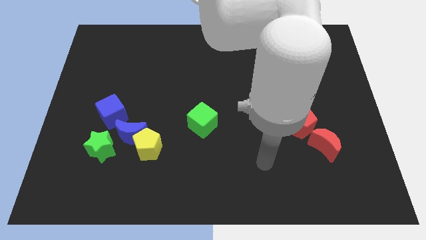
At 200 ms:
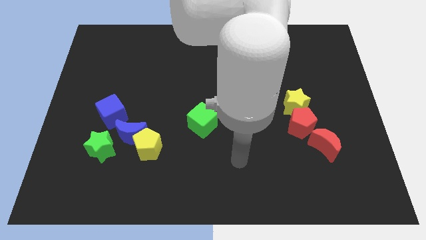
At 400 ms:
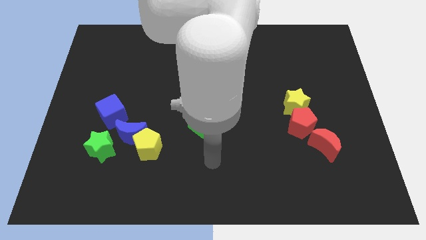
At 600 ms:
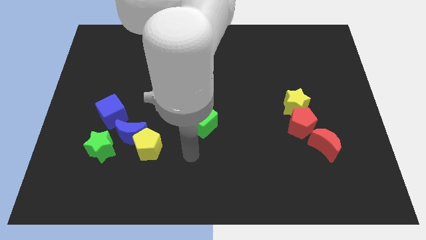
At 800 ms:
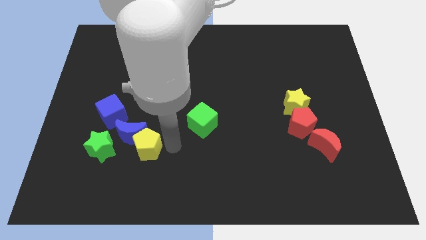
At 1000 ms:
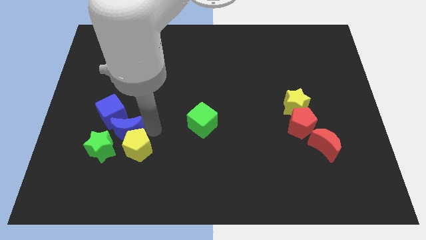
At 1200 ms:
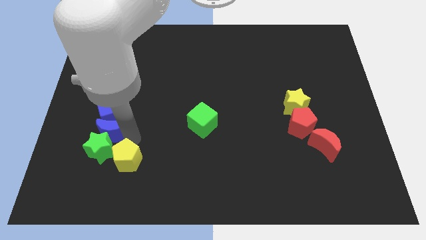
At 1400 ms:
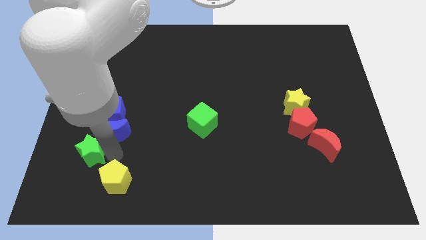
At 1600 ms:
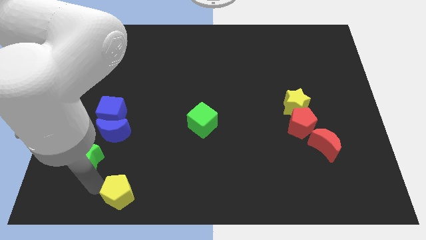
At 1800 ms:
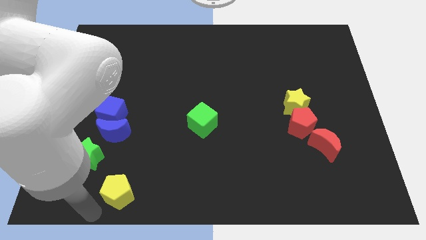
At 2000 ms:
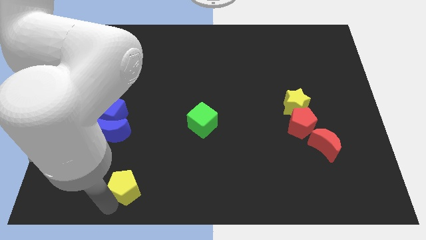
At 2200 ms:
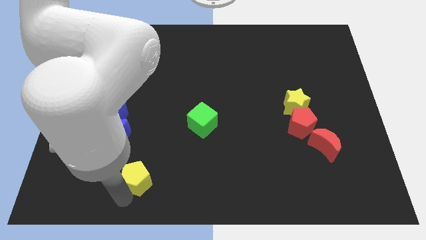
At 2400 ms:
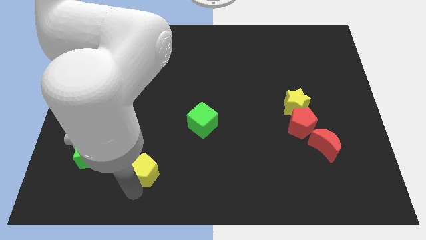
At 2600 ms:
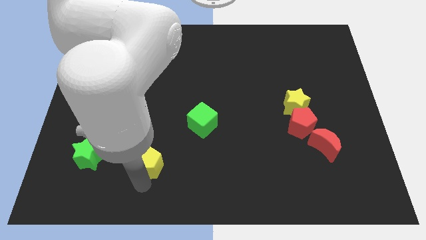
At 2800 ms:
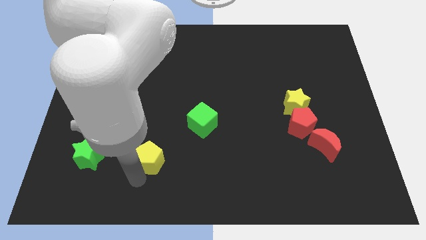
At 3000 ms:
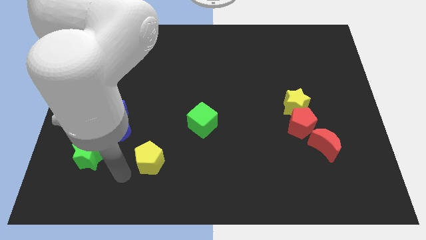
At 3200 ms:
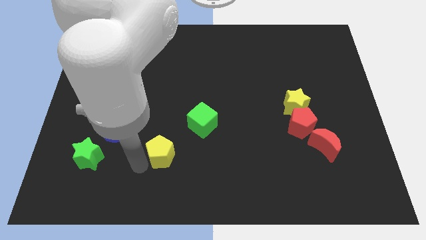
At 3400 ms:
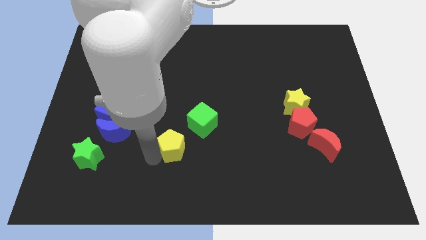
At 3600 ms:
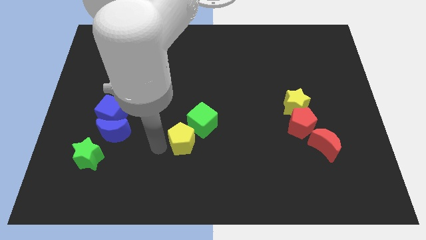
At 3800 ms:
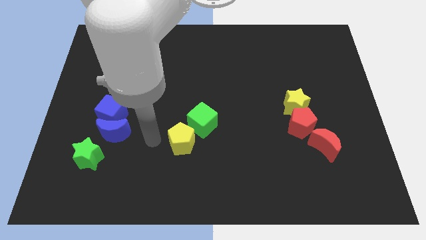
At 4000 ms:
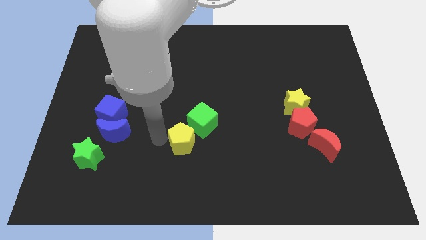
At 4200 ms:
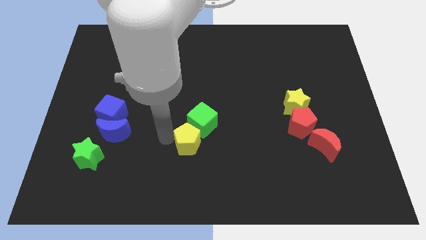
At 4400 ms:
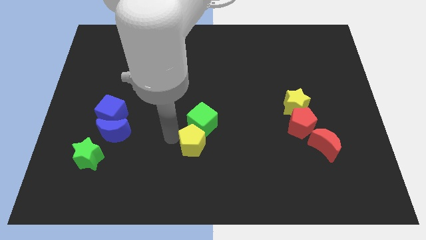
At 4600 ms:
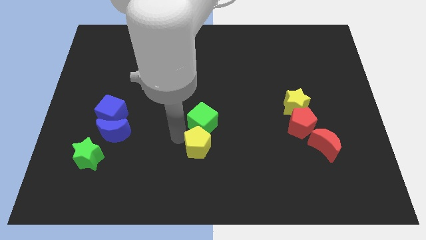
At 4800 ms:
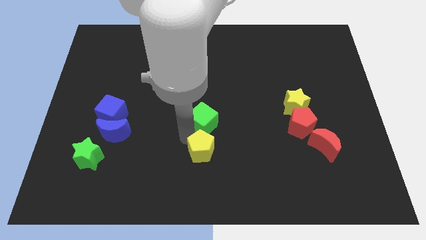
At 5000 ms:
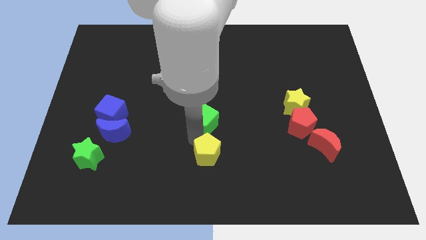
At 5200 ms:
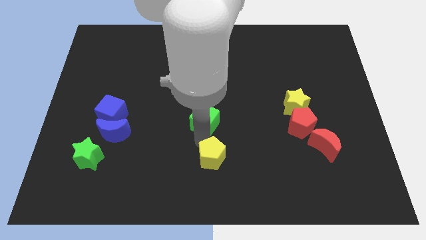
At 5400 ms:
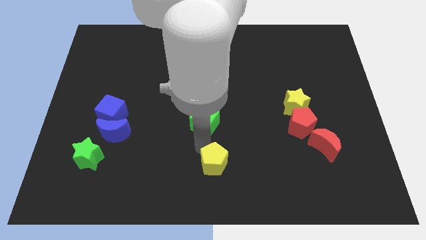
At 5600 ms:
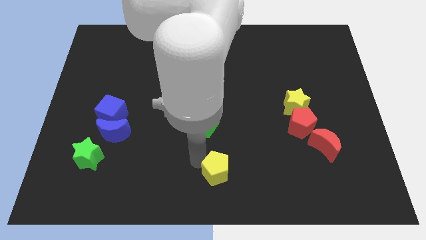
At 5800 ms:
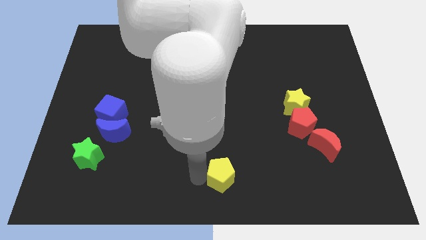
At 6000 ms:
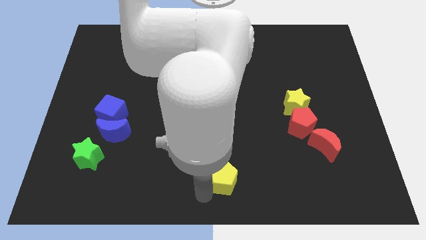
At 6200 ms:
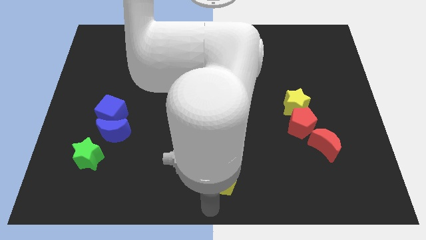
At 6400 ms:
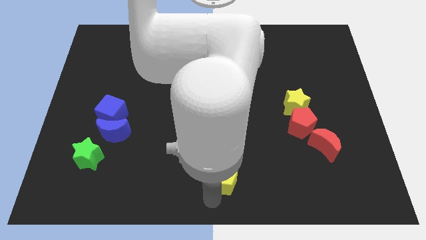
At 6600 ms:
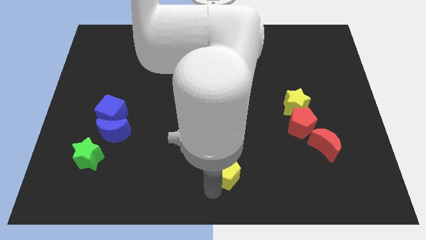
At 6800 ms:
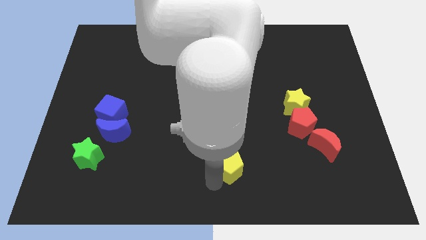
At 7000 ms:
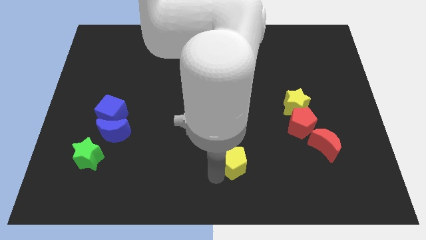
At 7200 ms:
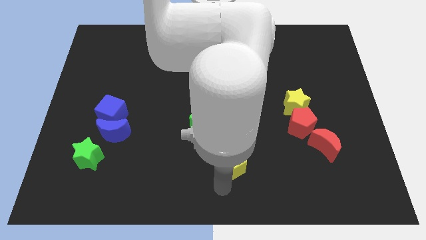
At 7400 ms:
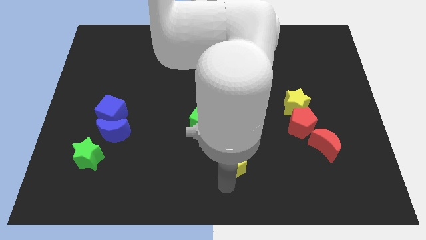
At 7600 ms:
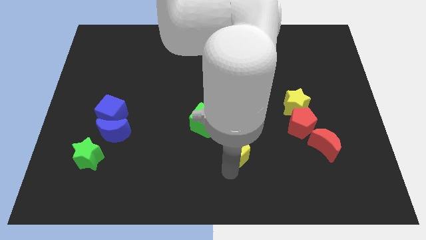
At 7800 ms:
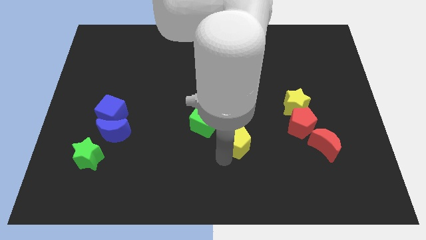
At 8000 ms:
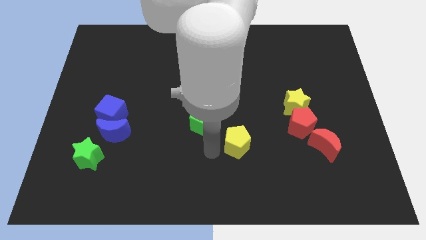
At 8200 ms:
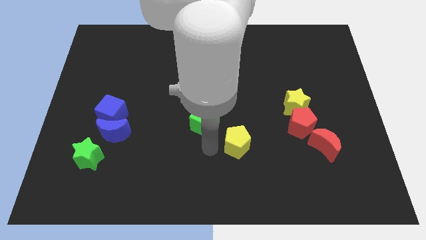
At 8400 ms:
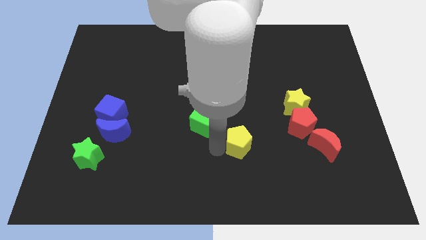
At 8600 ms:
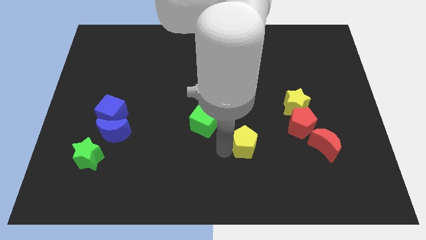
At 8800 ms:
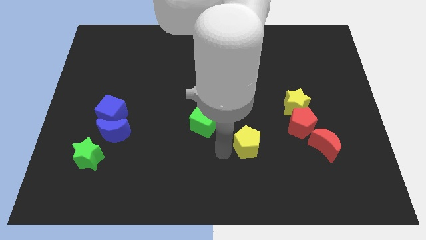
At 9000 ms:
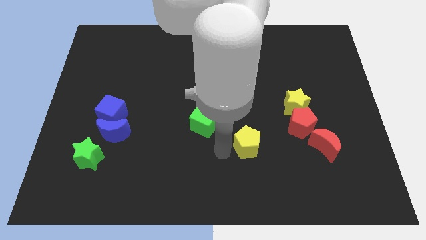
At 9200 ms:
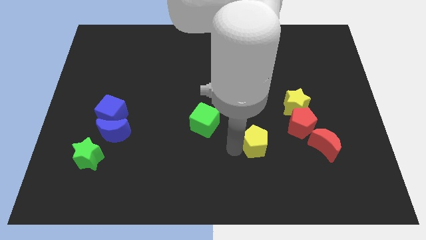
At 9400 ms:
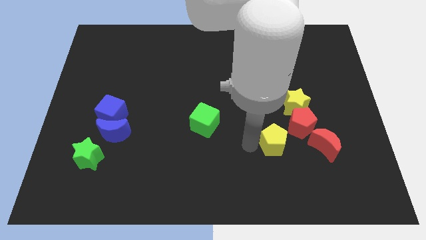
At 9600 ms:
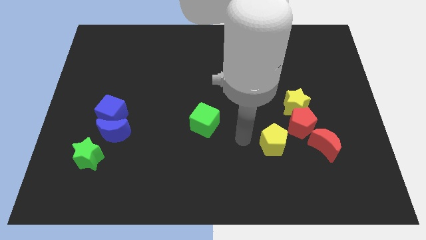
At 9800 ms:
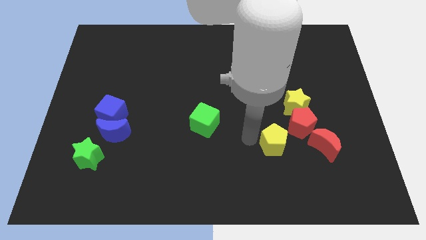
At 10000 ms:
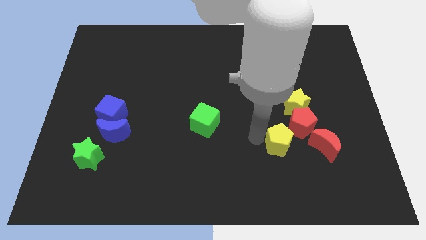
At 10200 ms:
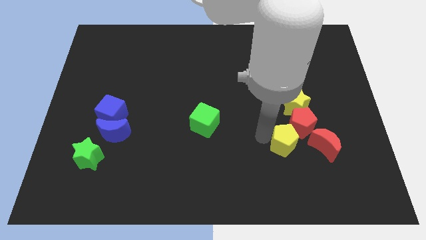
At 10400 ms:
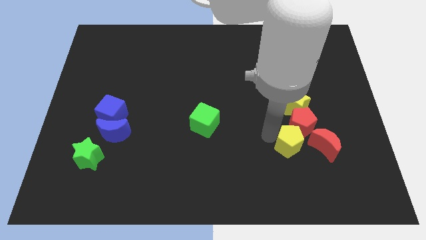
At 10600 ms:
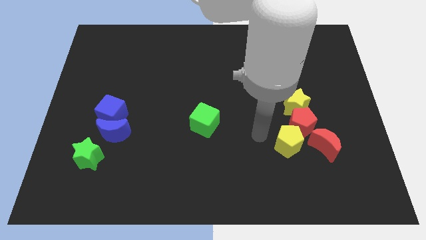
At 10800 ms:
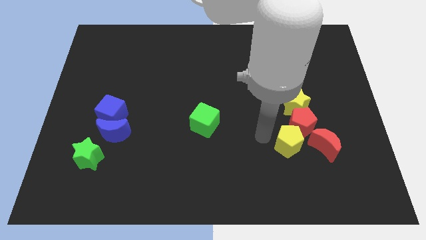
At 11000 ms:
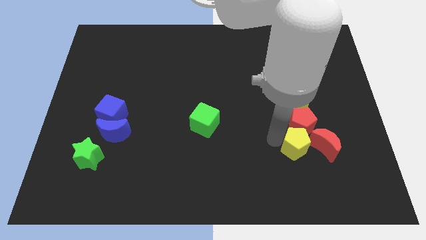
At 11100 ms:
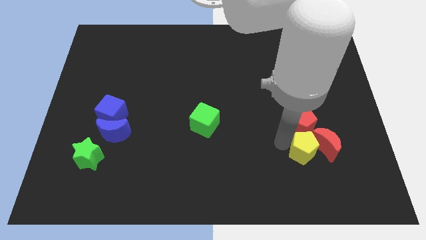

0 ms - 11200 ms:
slide the yellow pentagon next to the red moon

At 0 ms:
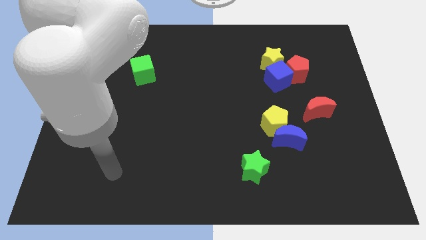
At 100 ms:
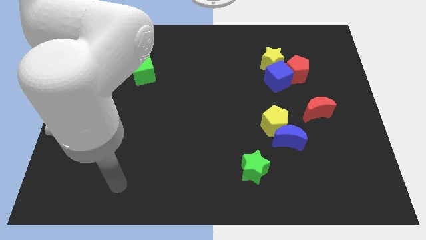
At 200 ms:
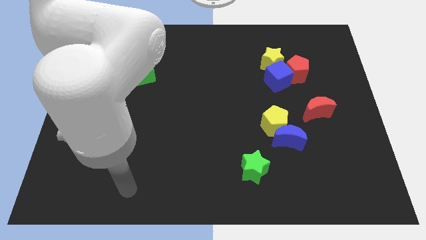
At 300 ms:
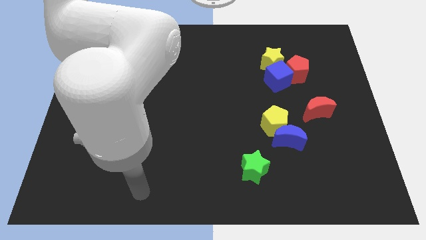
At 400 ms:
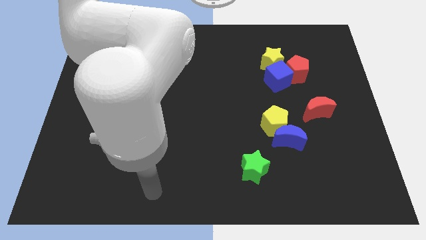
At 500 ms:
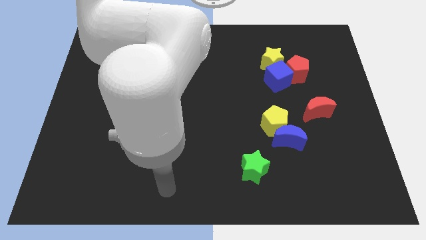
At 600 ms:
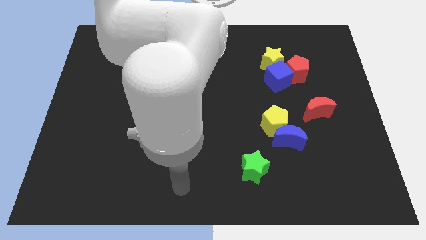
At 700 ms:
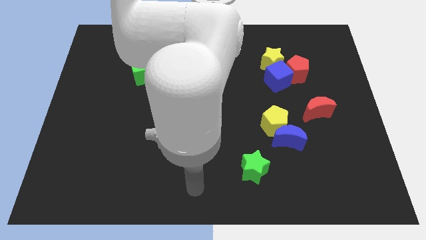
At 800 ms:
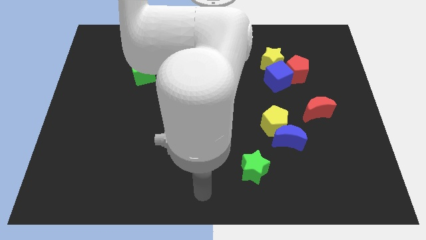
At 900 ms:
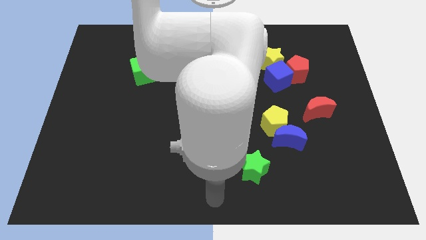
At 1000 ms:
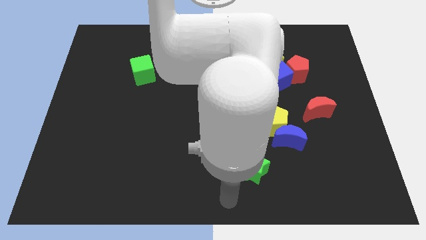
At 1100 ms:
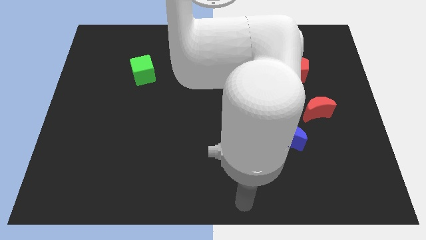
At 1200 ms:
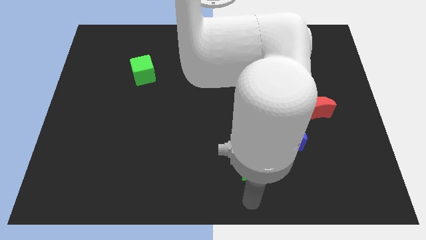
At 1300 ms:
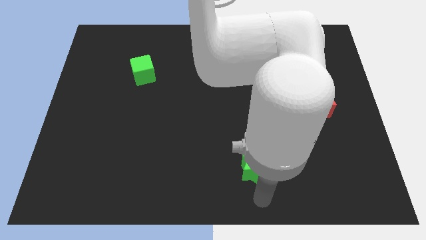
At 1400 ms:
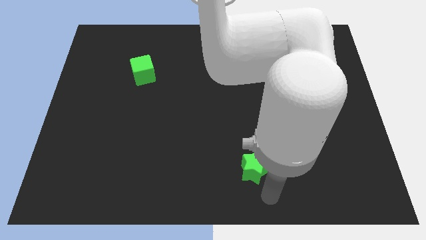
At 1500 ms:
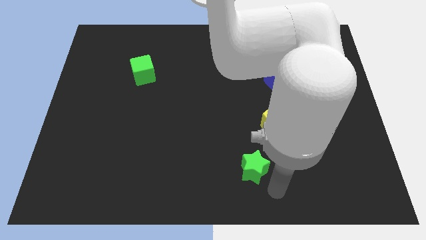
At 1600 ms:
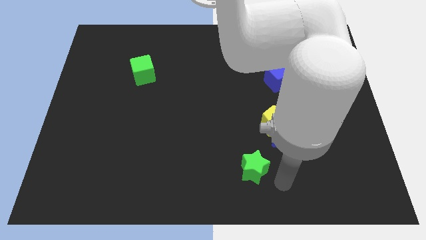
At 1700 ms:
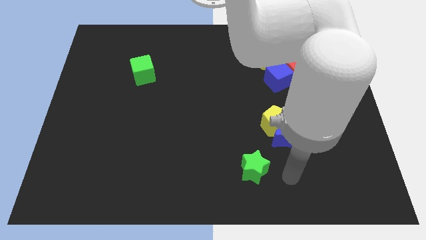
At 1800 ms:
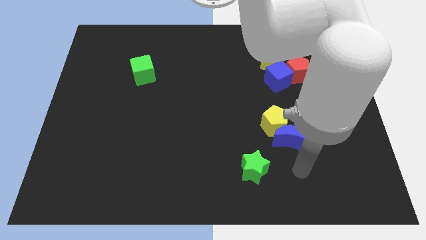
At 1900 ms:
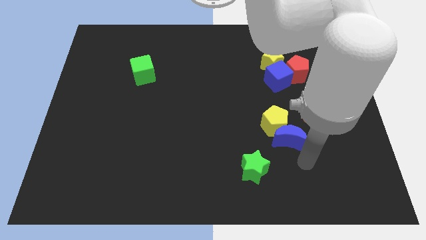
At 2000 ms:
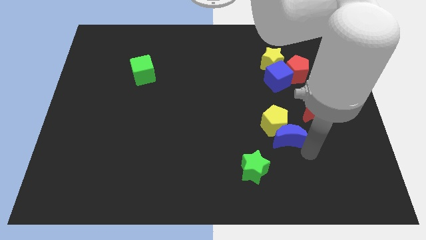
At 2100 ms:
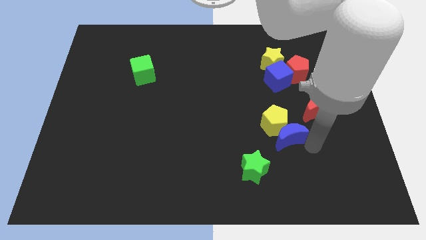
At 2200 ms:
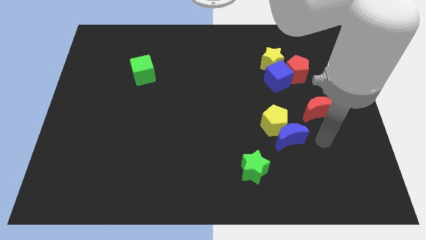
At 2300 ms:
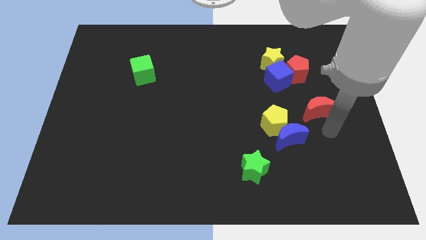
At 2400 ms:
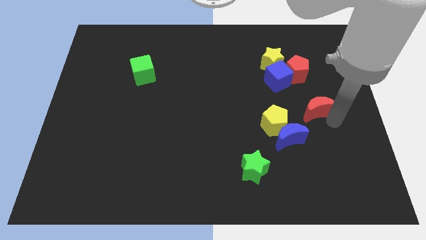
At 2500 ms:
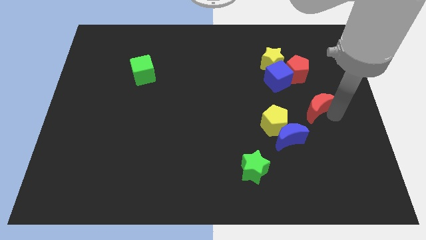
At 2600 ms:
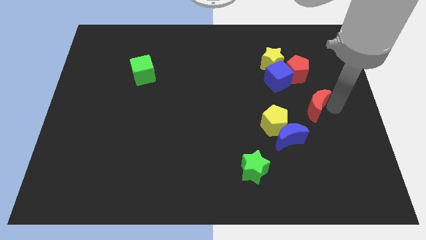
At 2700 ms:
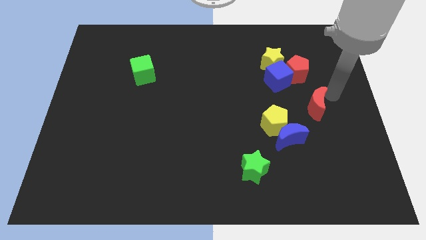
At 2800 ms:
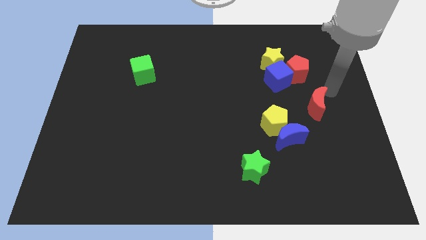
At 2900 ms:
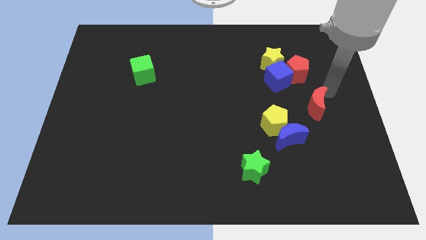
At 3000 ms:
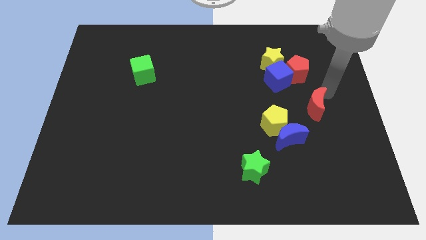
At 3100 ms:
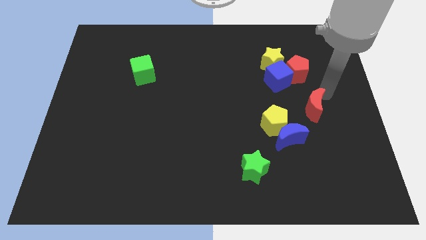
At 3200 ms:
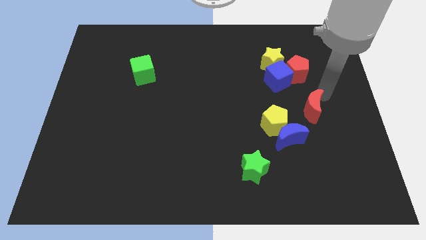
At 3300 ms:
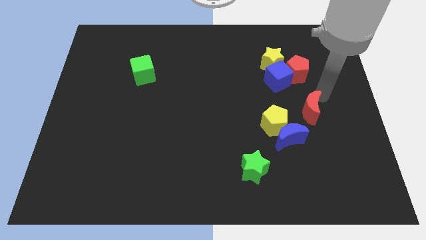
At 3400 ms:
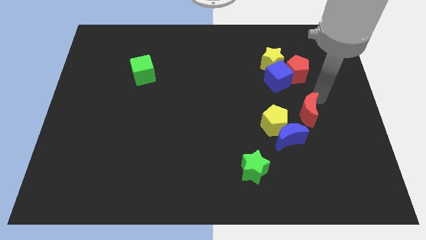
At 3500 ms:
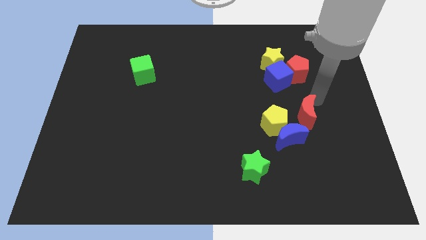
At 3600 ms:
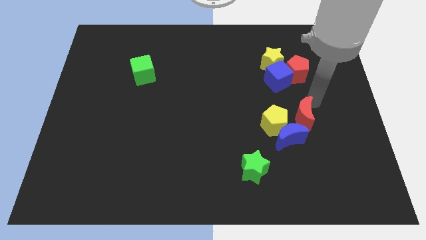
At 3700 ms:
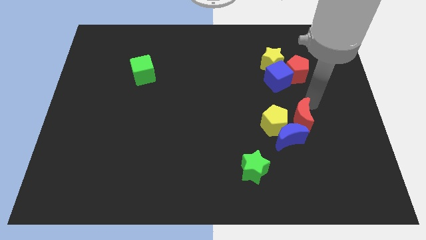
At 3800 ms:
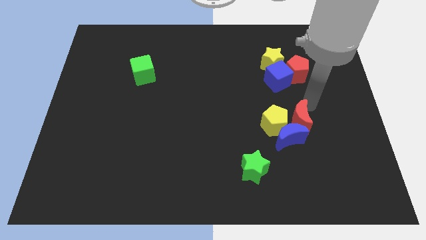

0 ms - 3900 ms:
slide the red moon to the blue moon
